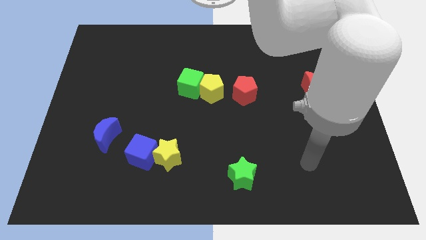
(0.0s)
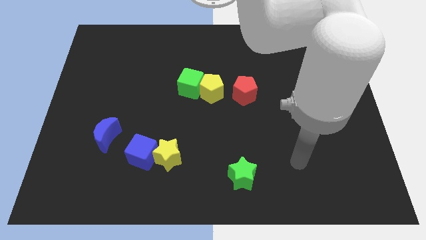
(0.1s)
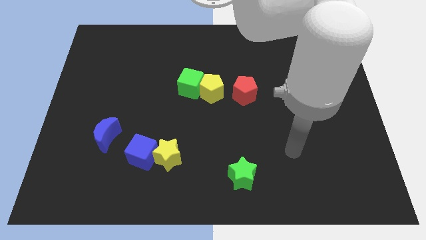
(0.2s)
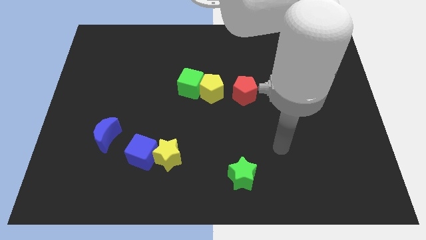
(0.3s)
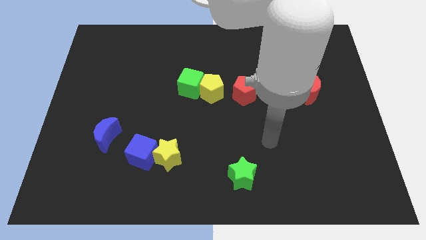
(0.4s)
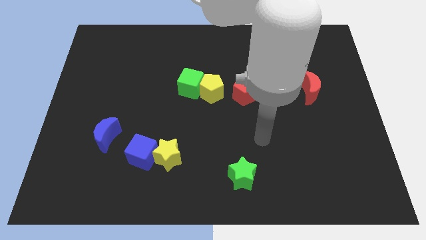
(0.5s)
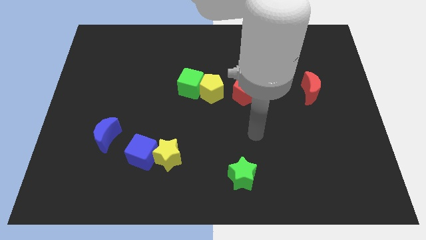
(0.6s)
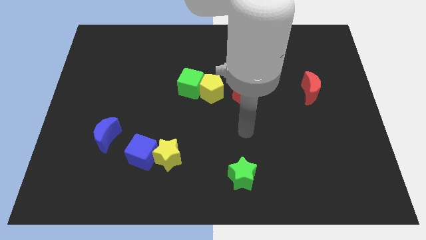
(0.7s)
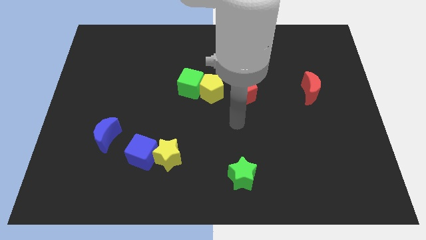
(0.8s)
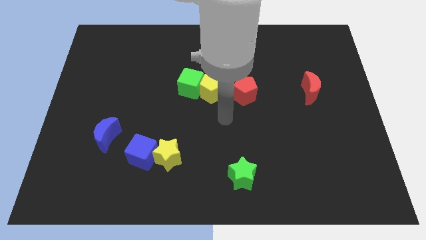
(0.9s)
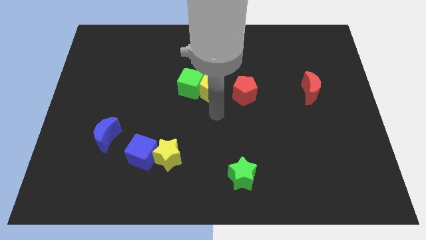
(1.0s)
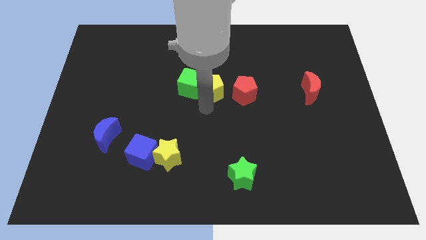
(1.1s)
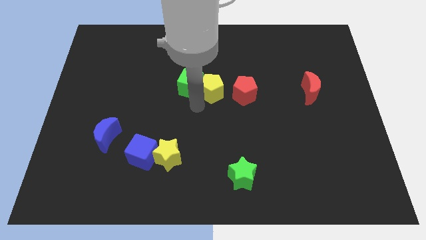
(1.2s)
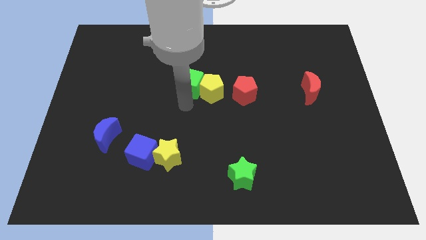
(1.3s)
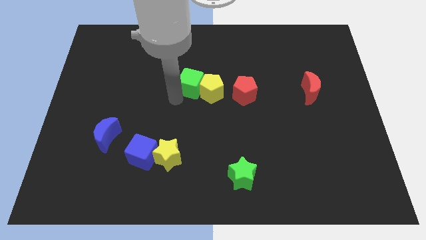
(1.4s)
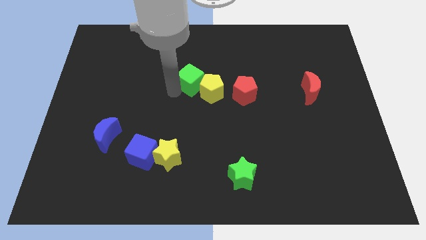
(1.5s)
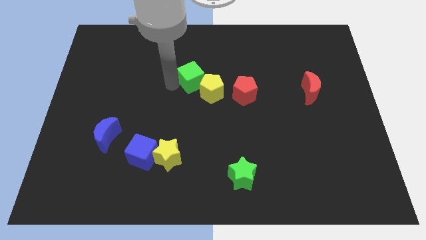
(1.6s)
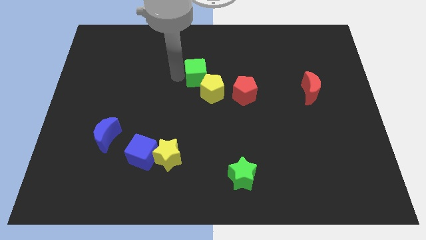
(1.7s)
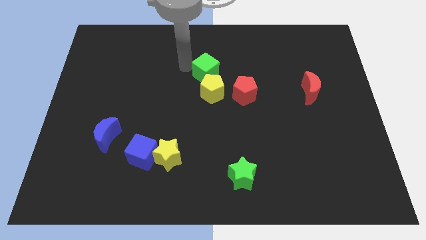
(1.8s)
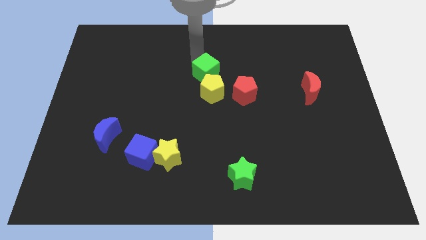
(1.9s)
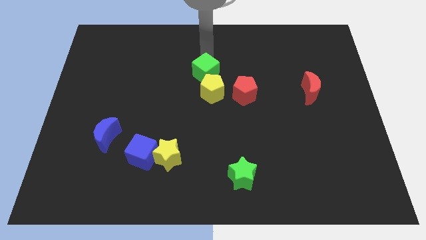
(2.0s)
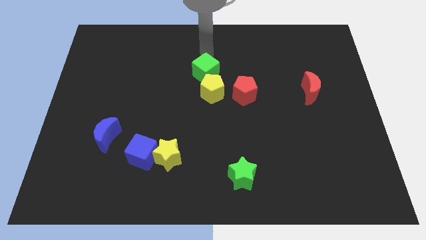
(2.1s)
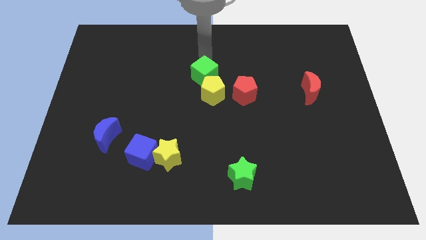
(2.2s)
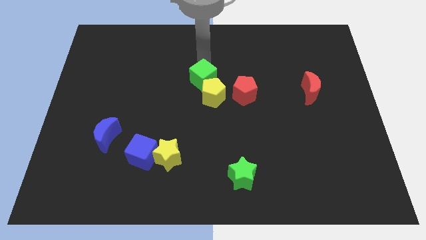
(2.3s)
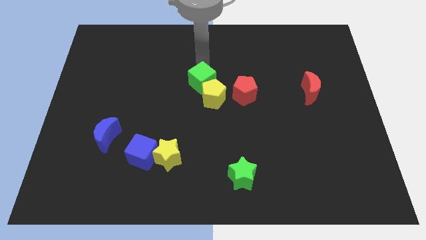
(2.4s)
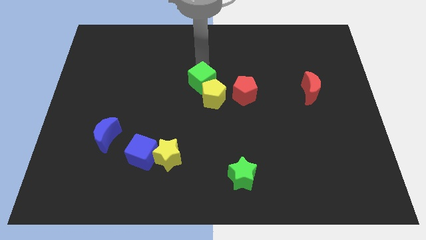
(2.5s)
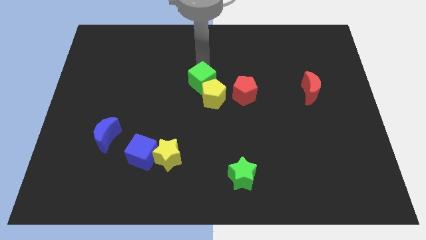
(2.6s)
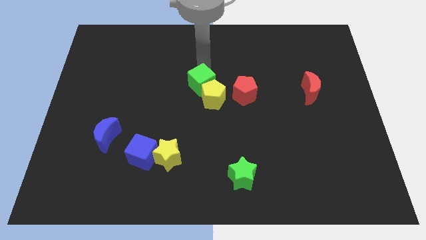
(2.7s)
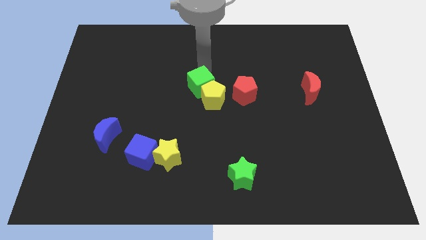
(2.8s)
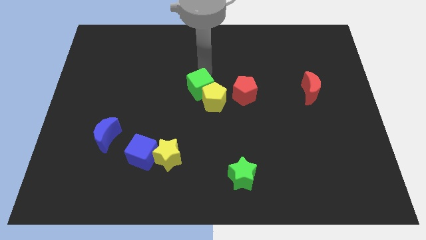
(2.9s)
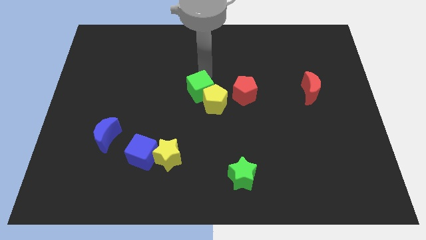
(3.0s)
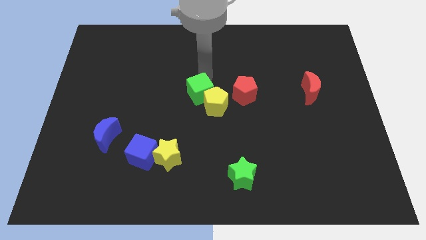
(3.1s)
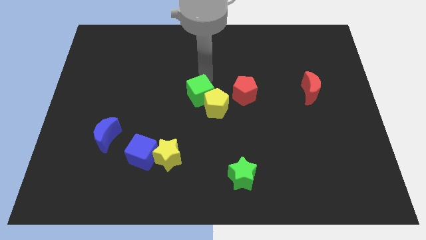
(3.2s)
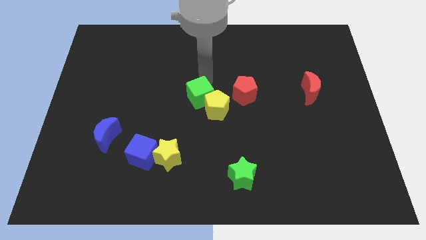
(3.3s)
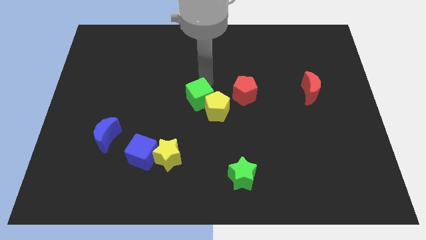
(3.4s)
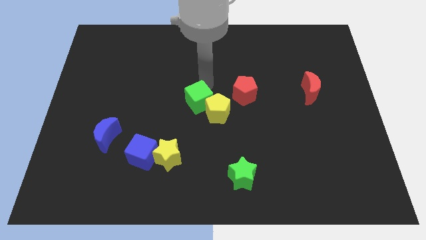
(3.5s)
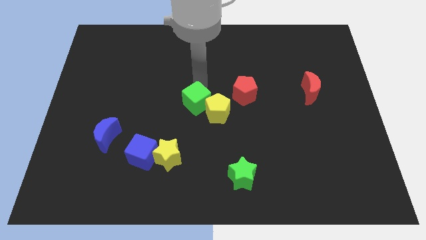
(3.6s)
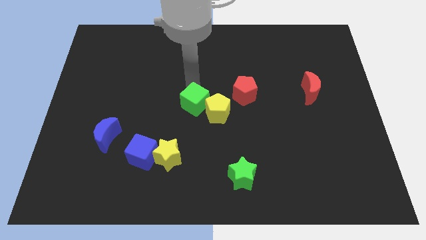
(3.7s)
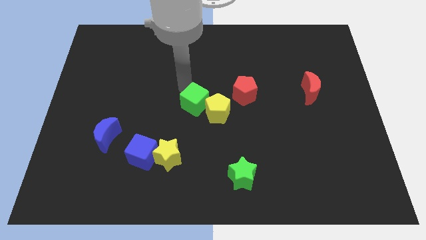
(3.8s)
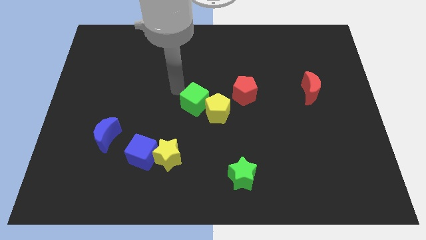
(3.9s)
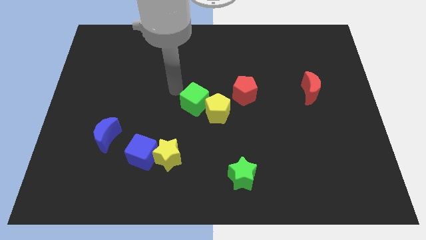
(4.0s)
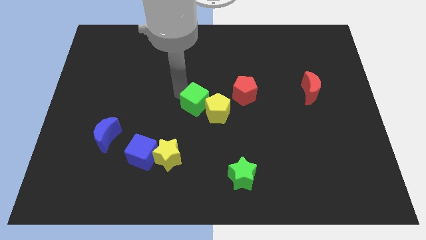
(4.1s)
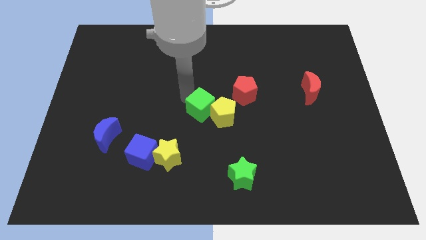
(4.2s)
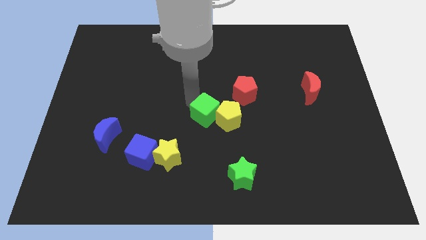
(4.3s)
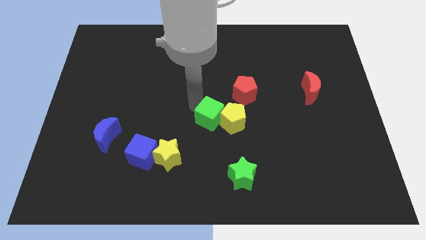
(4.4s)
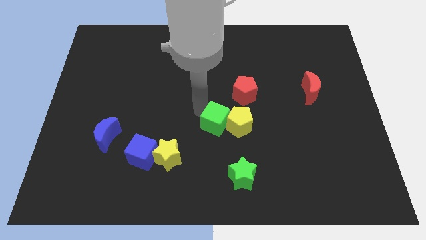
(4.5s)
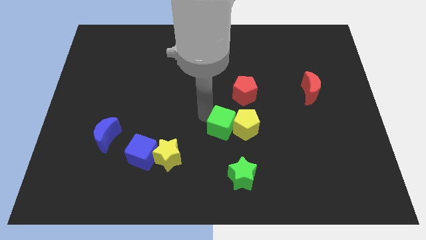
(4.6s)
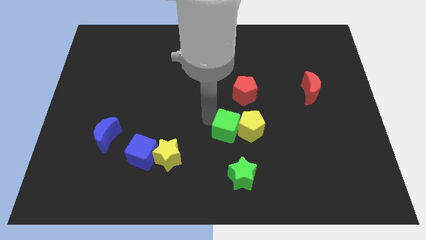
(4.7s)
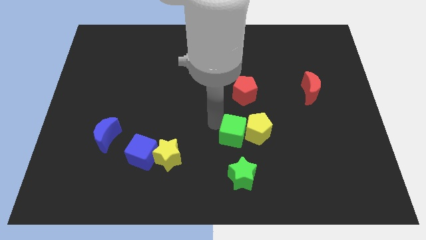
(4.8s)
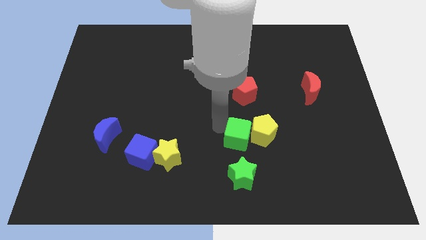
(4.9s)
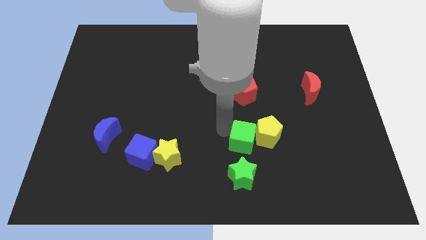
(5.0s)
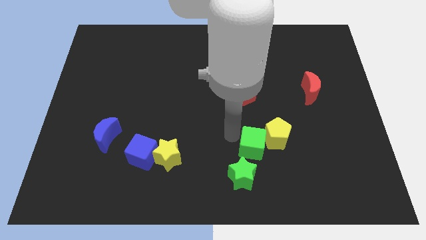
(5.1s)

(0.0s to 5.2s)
move the green cube downwards and to the right

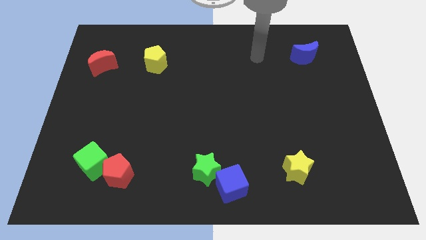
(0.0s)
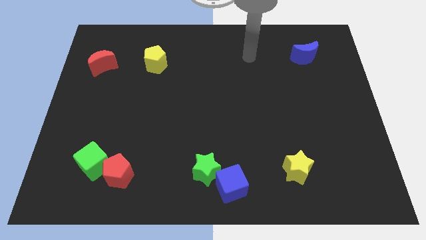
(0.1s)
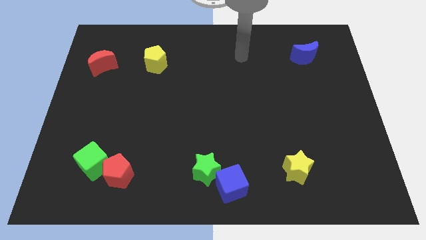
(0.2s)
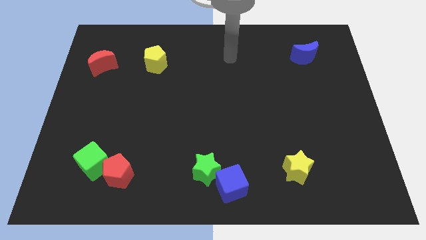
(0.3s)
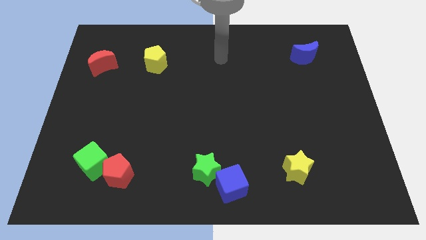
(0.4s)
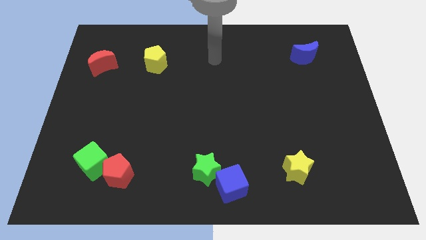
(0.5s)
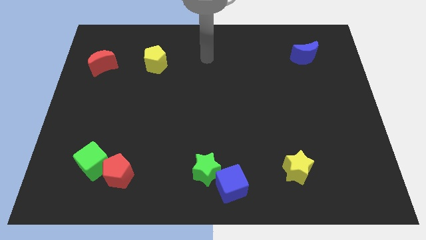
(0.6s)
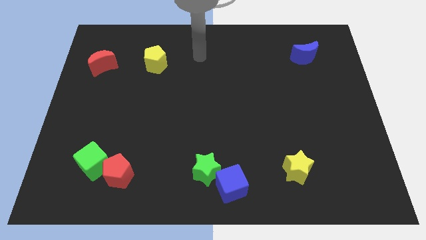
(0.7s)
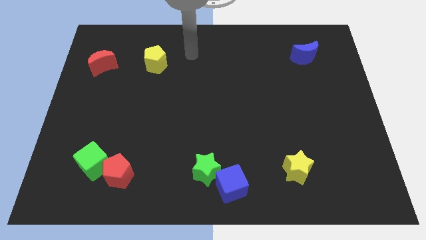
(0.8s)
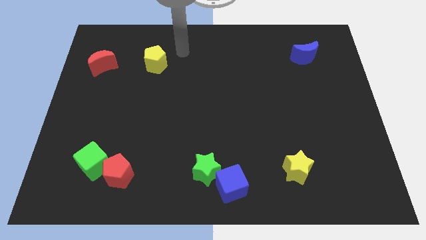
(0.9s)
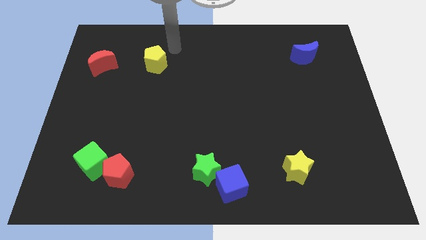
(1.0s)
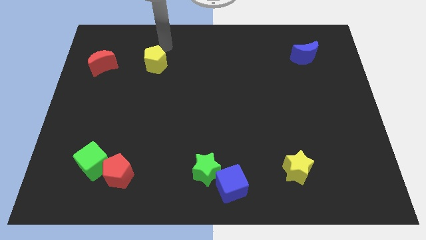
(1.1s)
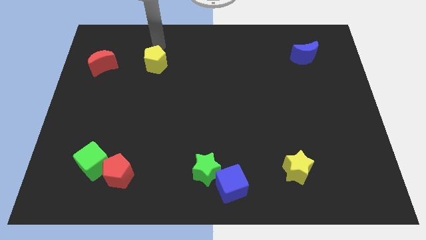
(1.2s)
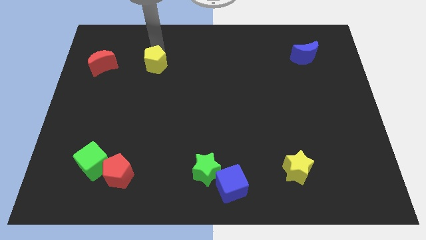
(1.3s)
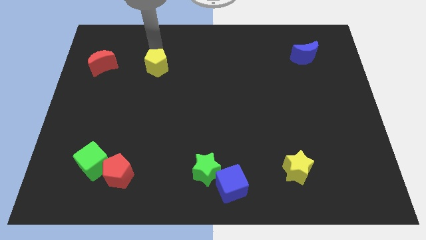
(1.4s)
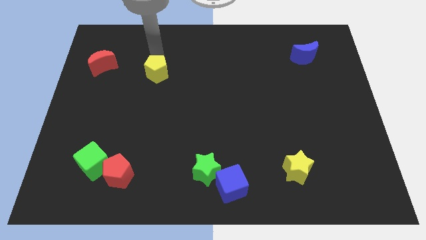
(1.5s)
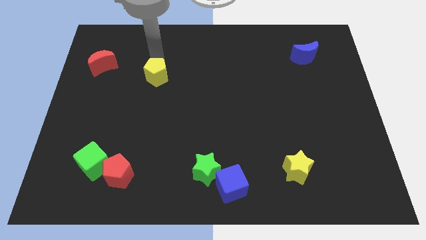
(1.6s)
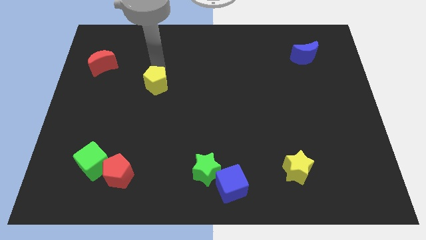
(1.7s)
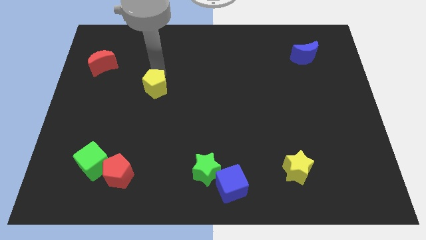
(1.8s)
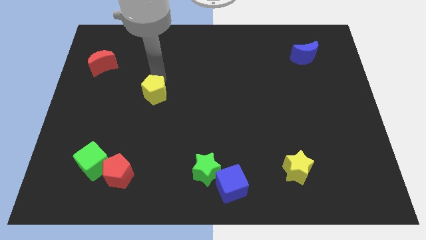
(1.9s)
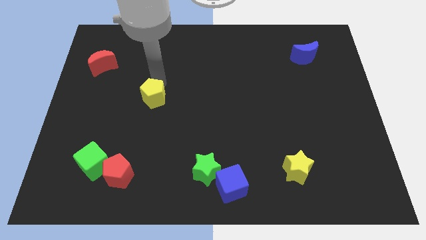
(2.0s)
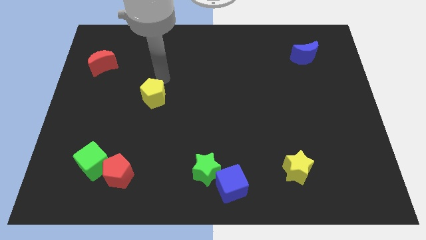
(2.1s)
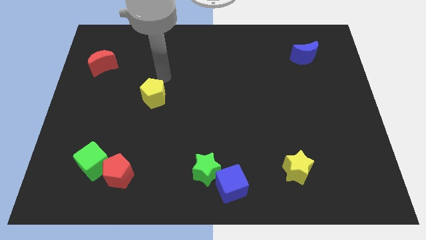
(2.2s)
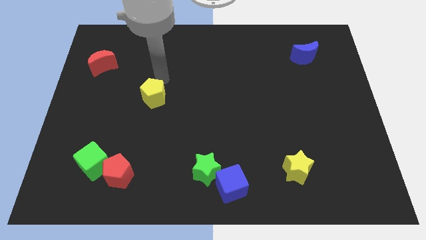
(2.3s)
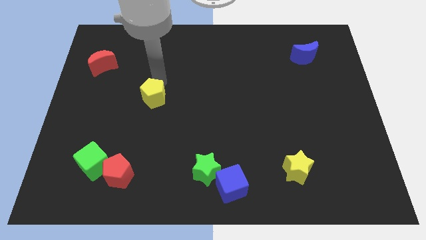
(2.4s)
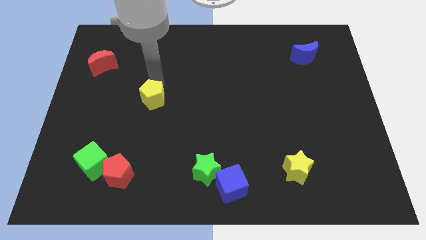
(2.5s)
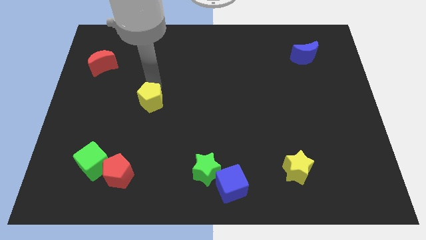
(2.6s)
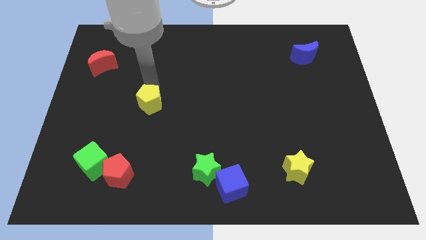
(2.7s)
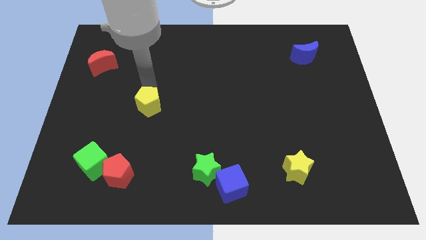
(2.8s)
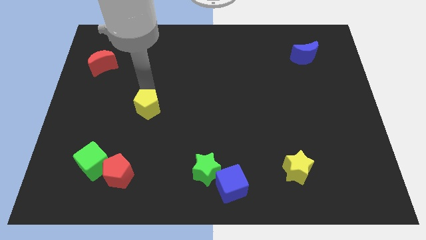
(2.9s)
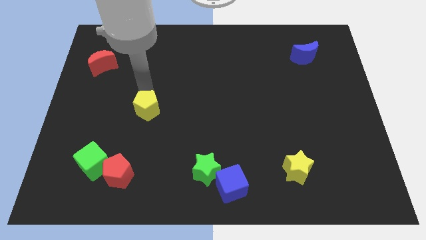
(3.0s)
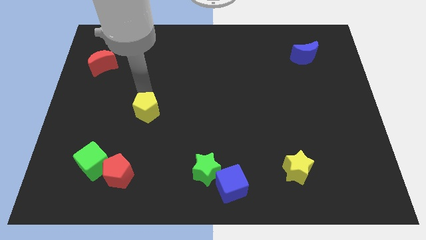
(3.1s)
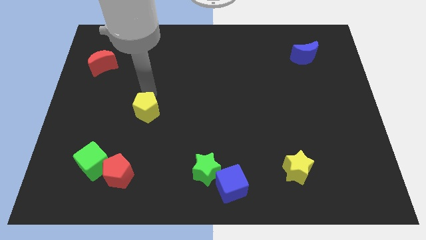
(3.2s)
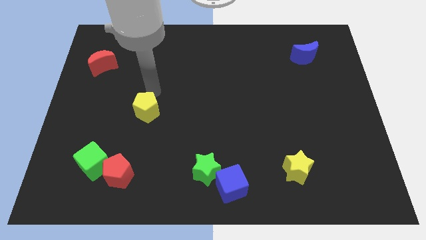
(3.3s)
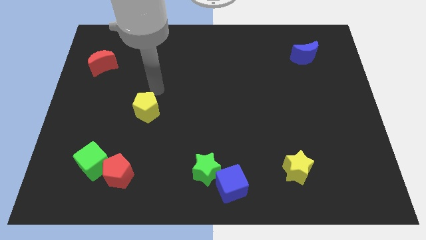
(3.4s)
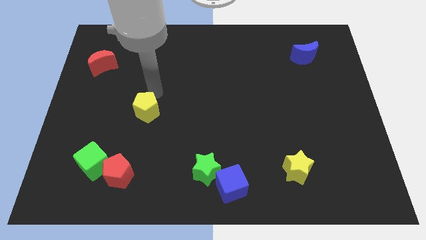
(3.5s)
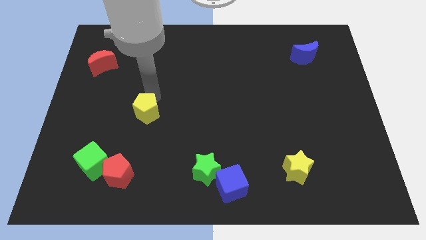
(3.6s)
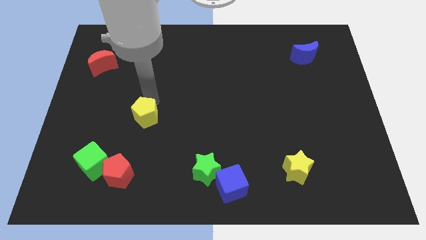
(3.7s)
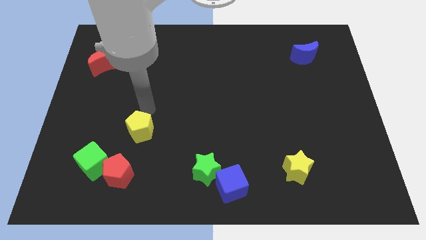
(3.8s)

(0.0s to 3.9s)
push the yellow pentagon downwards
